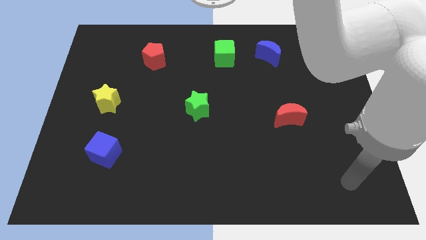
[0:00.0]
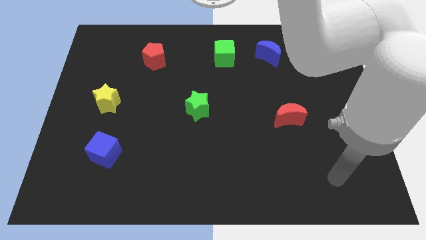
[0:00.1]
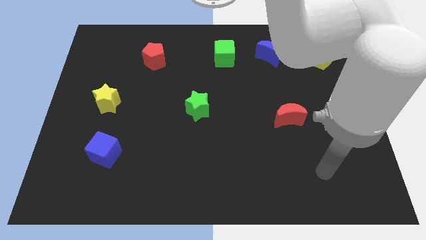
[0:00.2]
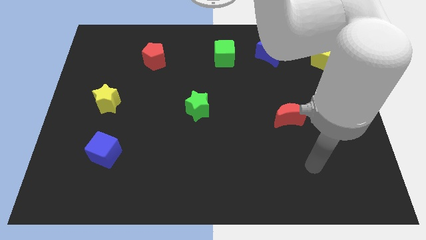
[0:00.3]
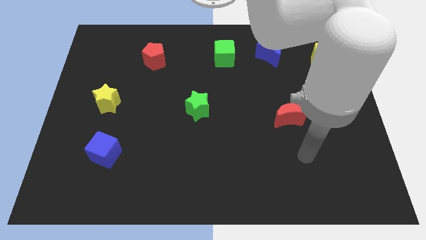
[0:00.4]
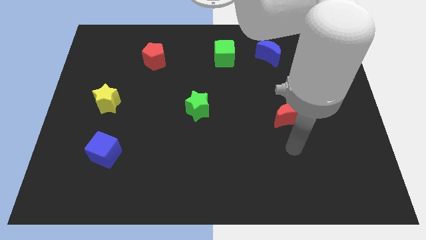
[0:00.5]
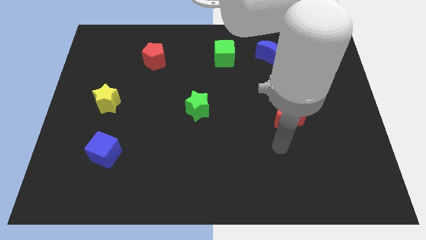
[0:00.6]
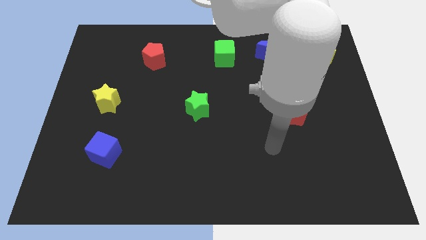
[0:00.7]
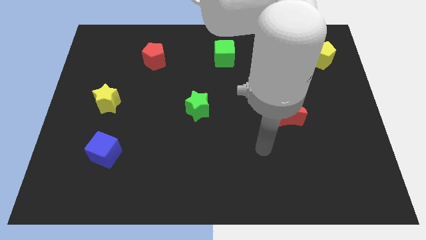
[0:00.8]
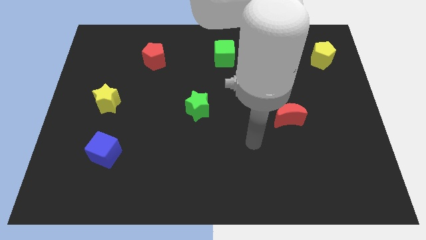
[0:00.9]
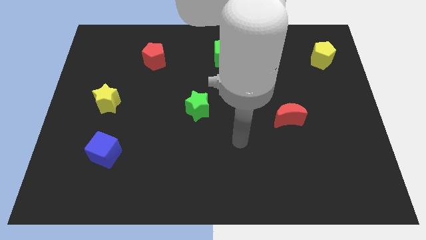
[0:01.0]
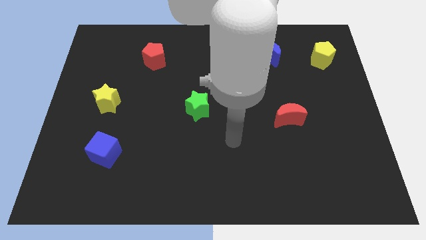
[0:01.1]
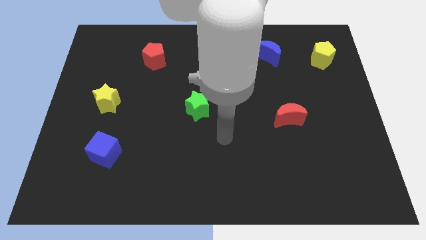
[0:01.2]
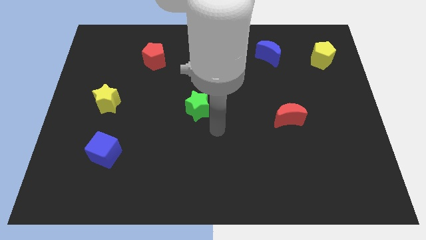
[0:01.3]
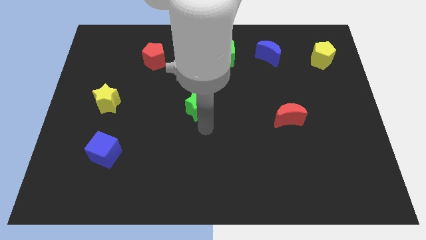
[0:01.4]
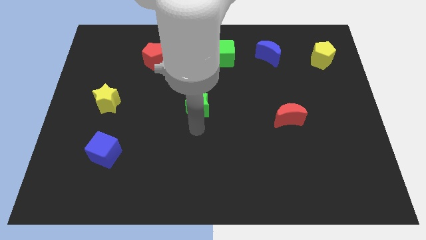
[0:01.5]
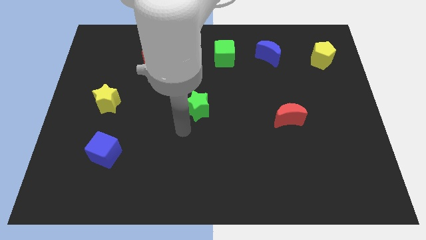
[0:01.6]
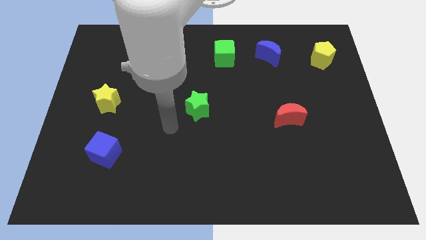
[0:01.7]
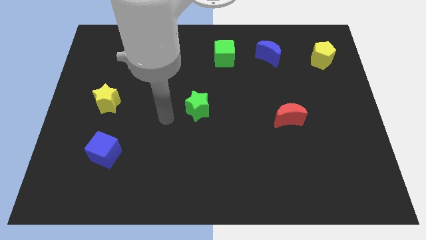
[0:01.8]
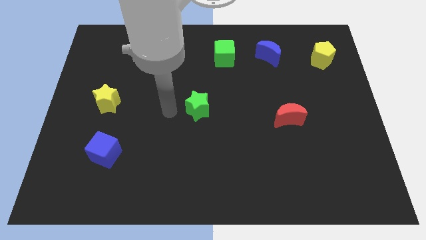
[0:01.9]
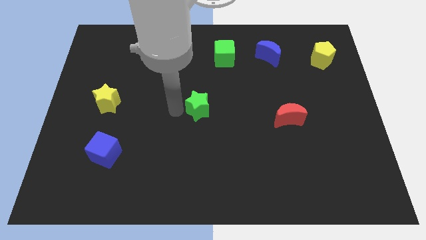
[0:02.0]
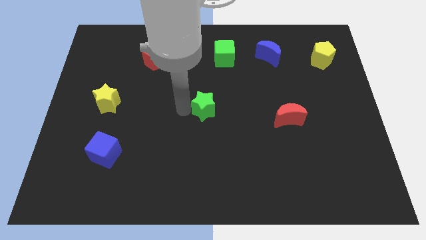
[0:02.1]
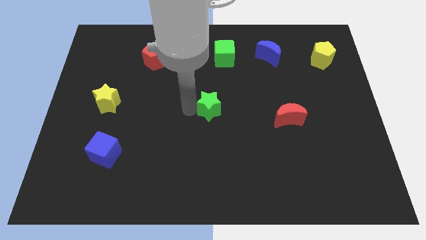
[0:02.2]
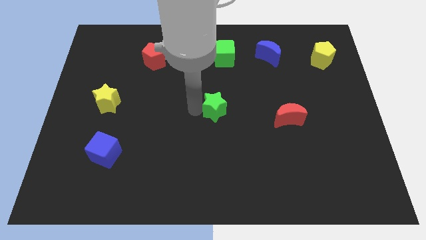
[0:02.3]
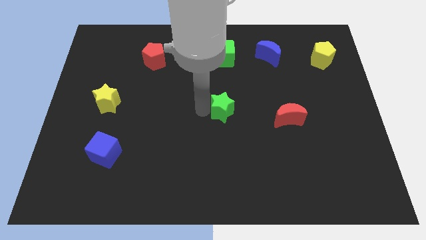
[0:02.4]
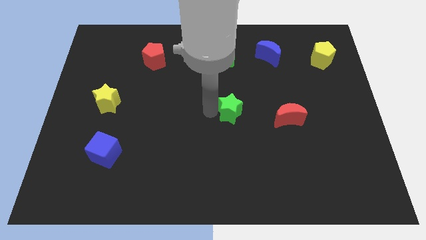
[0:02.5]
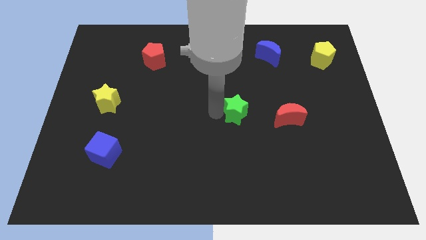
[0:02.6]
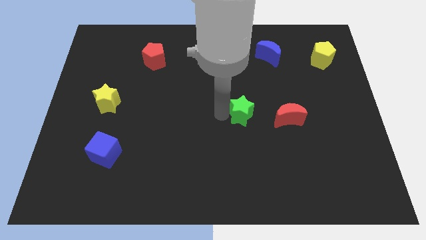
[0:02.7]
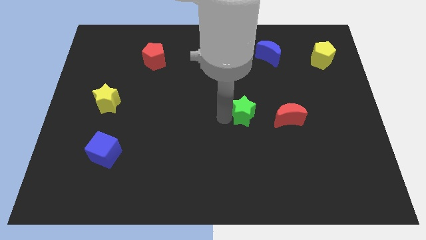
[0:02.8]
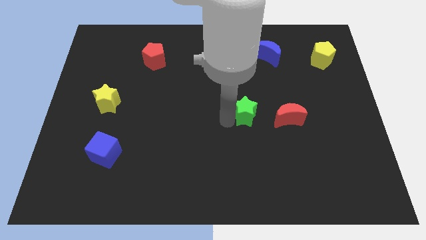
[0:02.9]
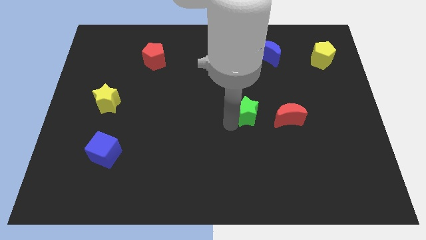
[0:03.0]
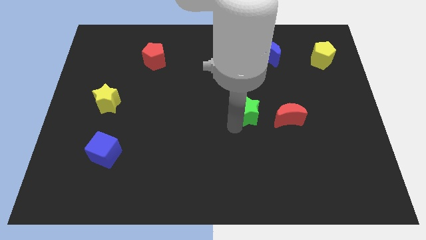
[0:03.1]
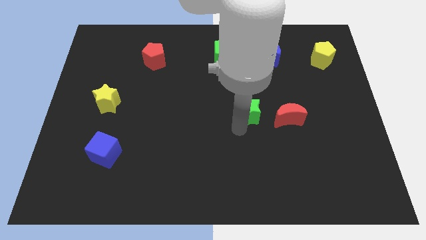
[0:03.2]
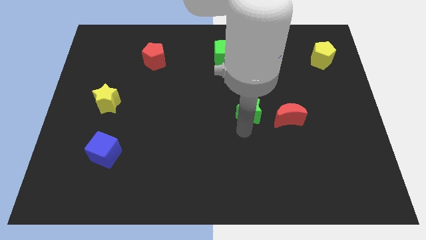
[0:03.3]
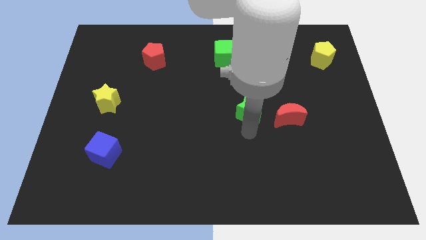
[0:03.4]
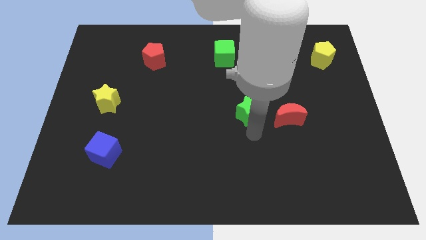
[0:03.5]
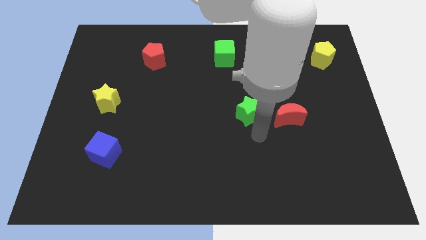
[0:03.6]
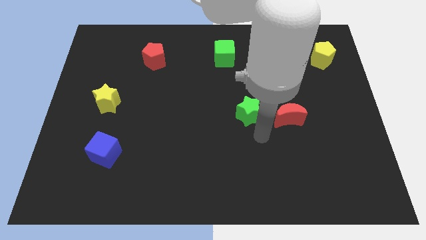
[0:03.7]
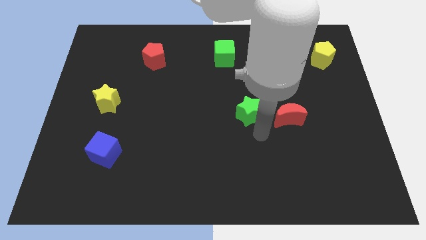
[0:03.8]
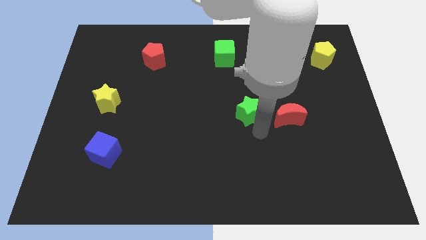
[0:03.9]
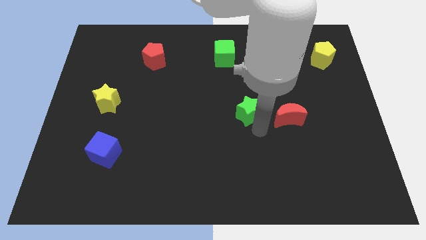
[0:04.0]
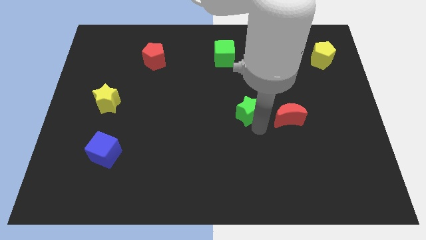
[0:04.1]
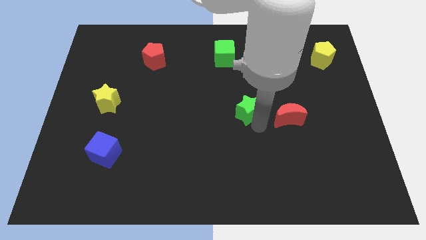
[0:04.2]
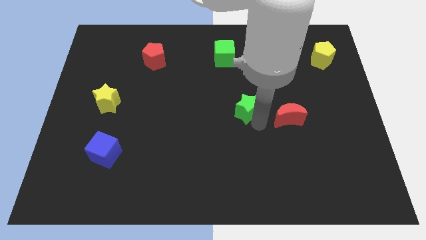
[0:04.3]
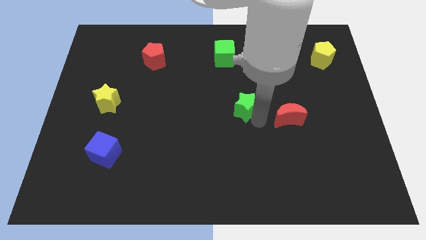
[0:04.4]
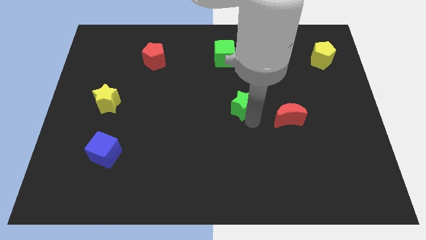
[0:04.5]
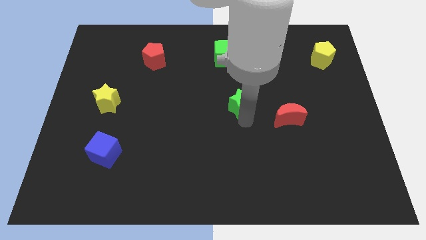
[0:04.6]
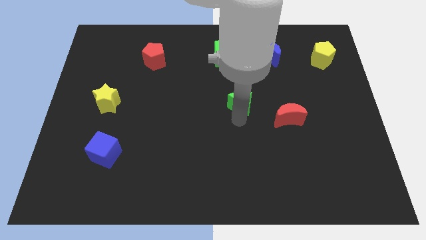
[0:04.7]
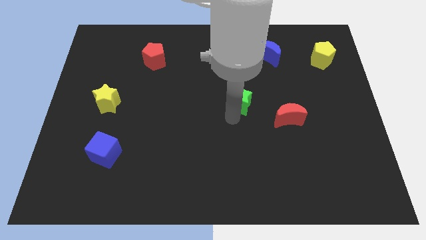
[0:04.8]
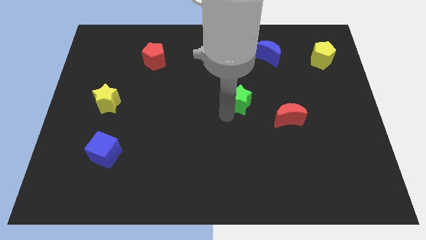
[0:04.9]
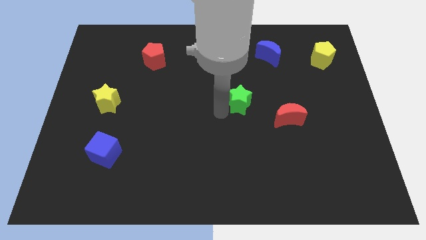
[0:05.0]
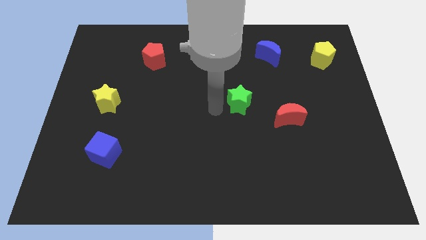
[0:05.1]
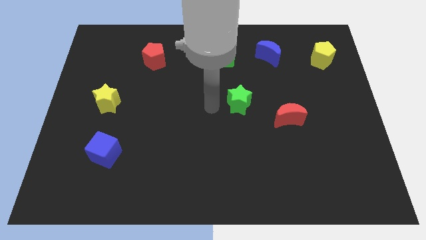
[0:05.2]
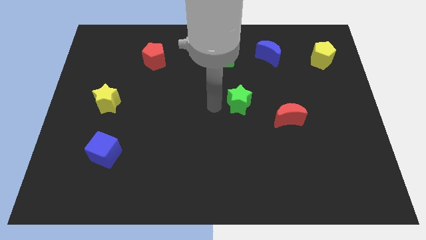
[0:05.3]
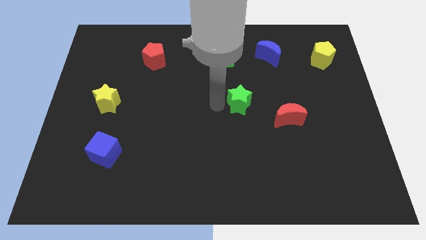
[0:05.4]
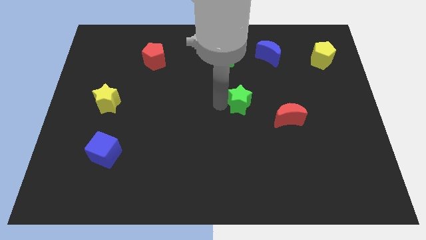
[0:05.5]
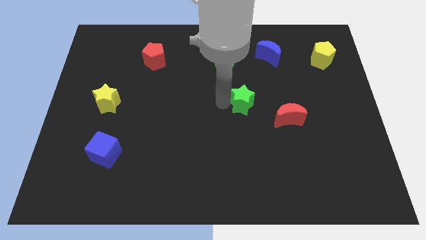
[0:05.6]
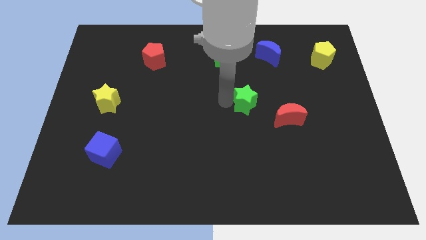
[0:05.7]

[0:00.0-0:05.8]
push the green star to the top left of the red moon

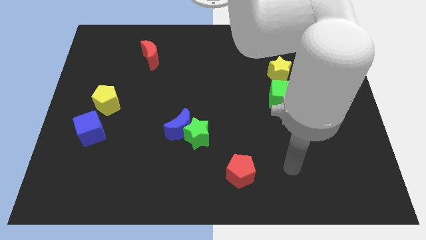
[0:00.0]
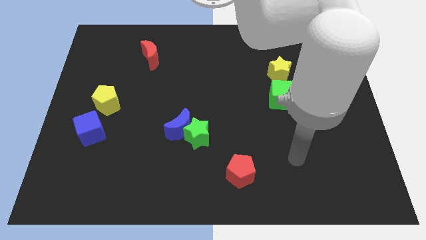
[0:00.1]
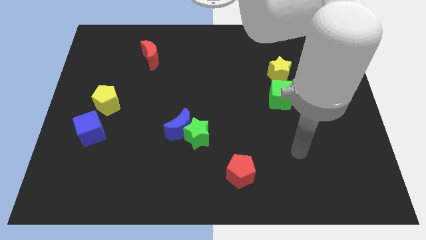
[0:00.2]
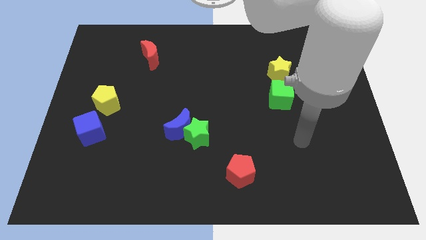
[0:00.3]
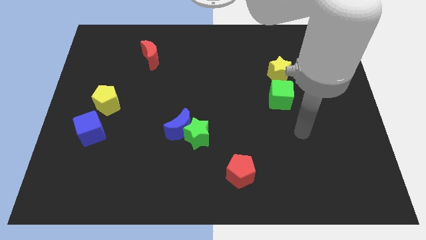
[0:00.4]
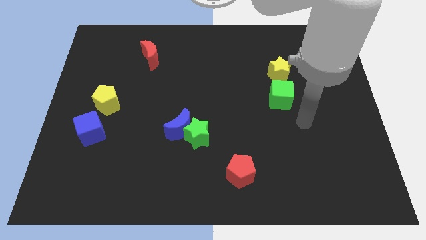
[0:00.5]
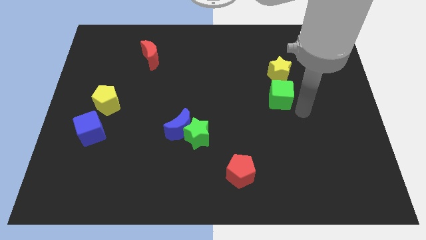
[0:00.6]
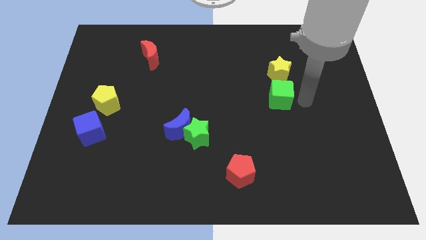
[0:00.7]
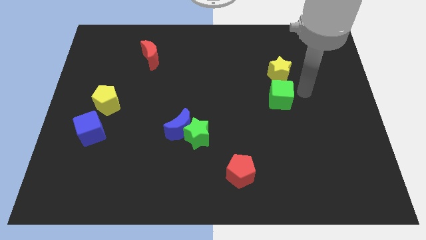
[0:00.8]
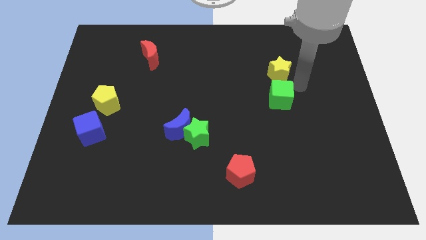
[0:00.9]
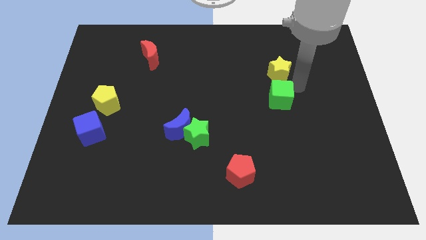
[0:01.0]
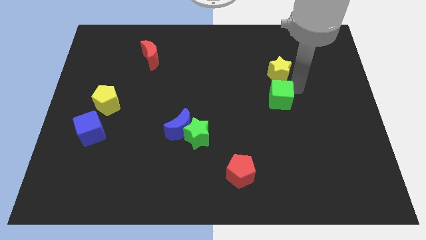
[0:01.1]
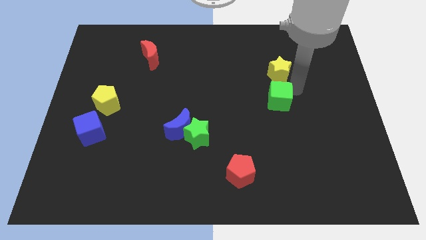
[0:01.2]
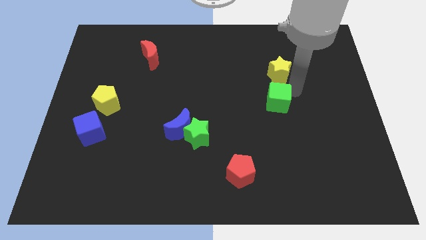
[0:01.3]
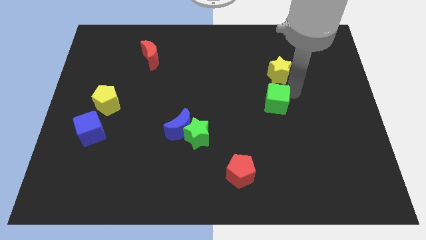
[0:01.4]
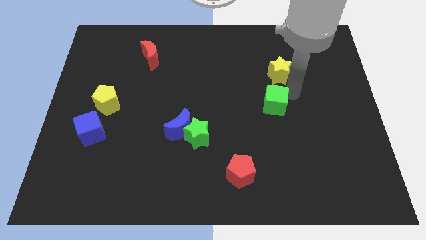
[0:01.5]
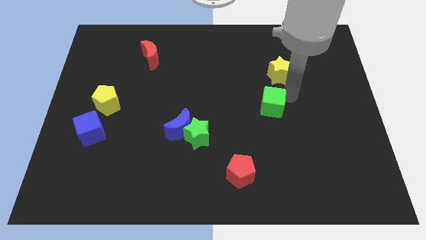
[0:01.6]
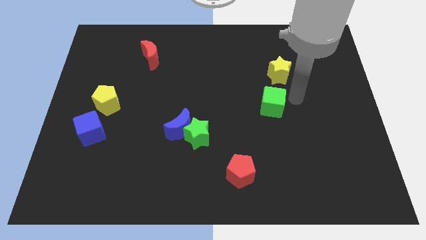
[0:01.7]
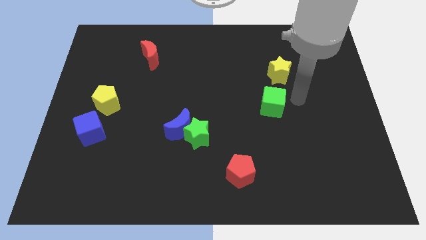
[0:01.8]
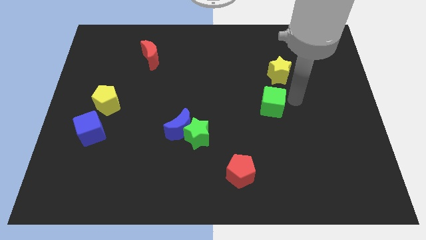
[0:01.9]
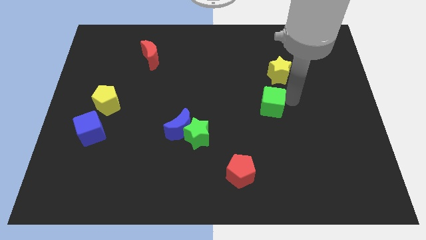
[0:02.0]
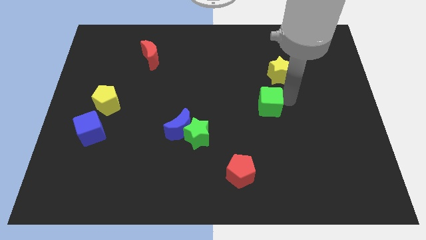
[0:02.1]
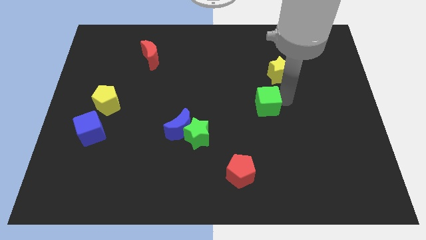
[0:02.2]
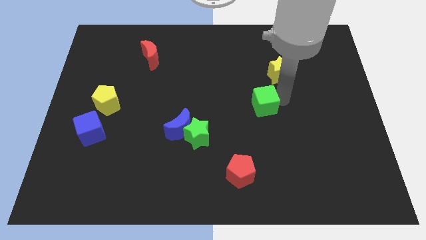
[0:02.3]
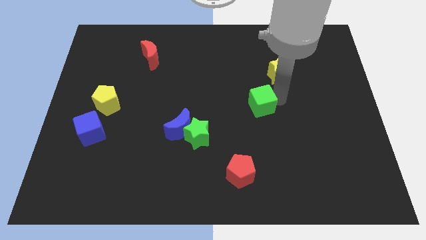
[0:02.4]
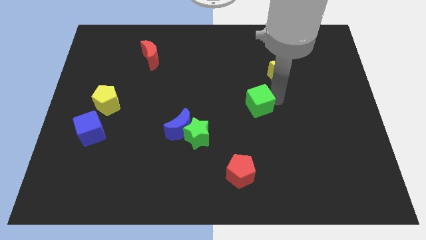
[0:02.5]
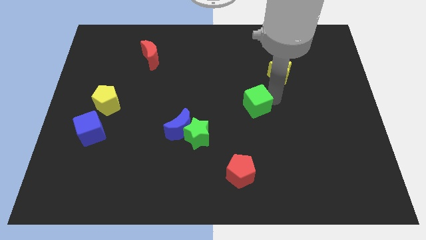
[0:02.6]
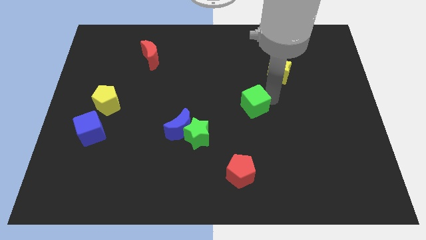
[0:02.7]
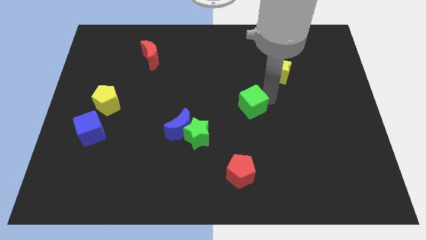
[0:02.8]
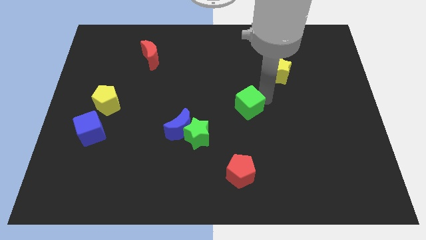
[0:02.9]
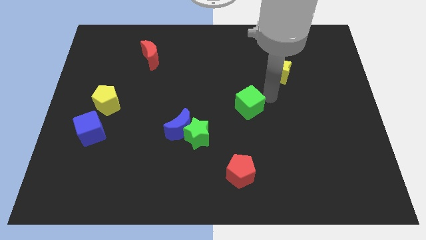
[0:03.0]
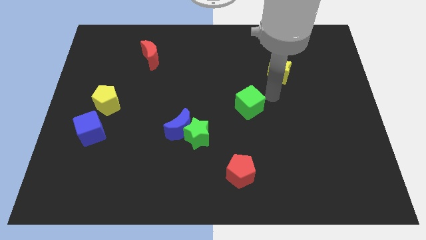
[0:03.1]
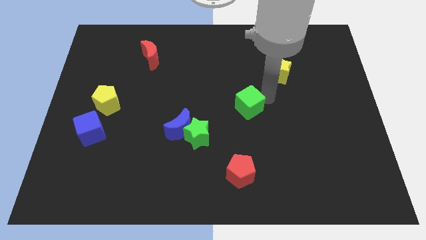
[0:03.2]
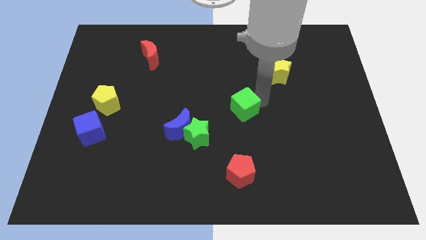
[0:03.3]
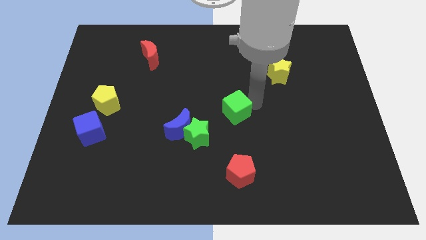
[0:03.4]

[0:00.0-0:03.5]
move the green cube diagonally up and to the right of the green star
